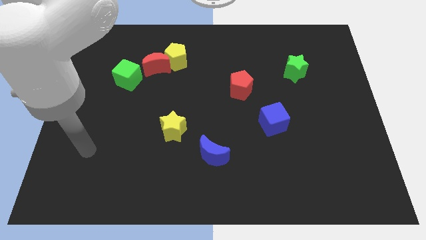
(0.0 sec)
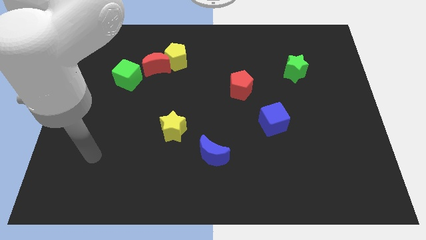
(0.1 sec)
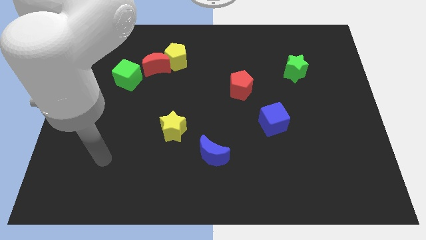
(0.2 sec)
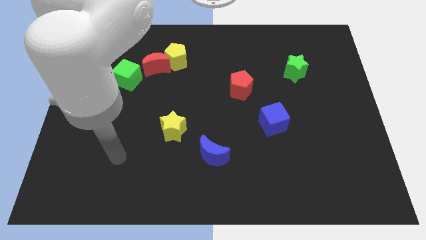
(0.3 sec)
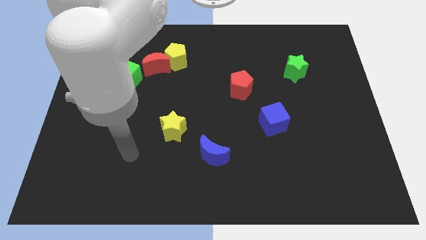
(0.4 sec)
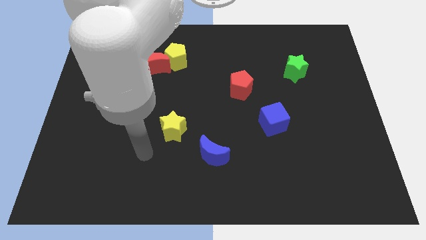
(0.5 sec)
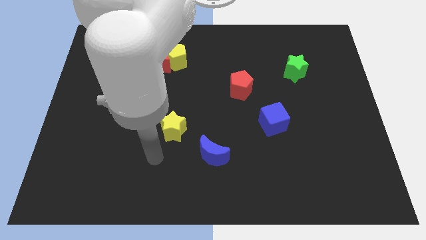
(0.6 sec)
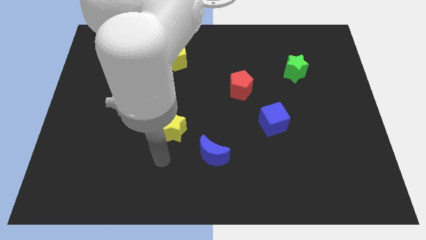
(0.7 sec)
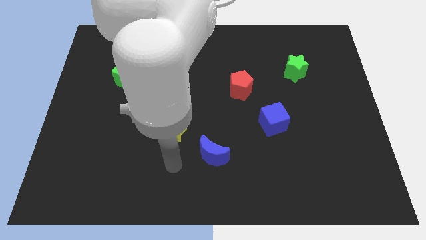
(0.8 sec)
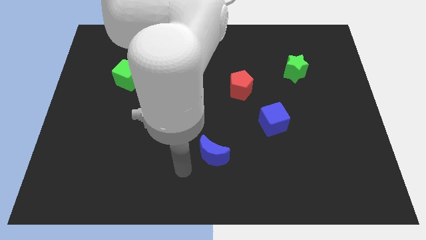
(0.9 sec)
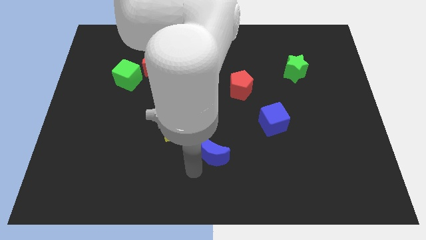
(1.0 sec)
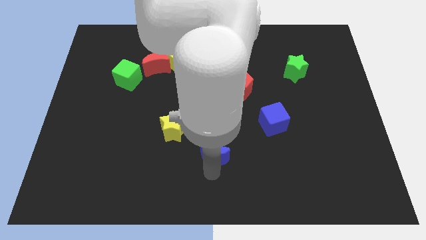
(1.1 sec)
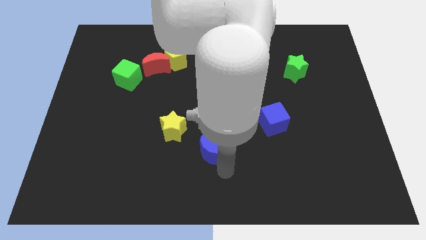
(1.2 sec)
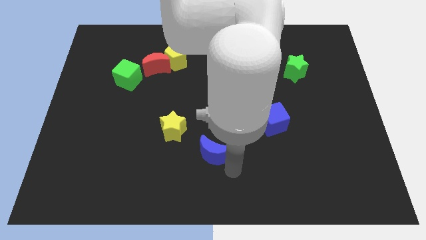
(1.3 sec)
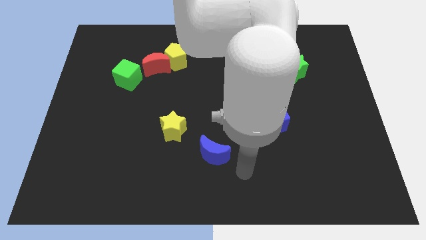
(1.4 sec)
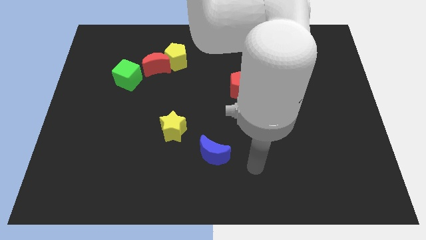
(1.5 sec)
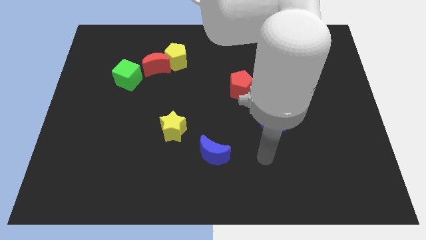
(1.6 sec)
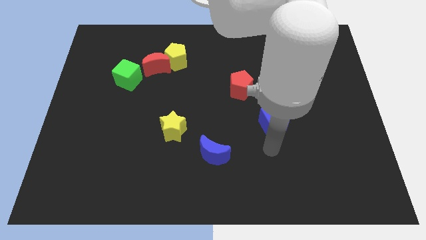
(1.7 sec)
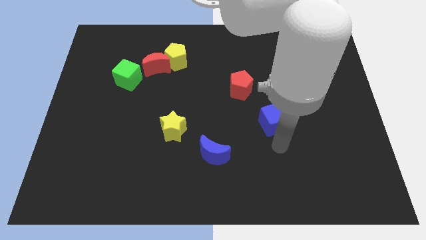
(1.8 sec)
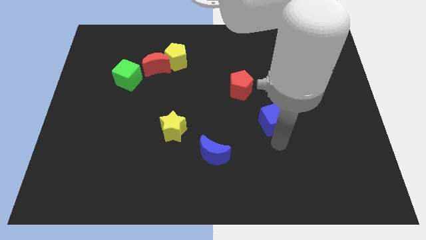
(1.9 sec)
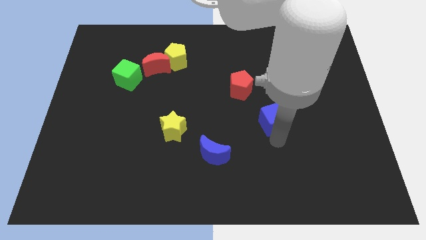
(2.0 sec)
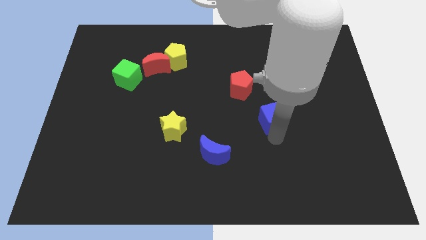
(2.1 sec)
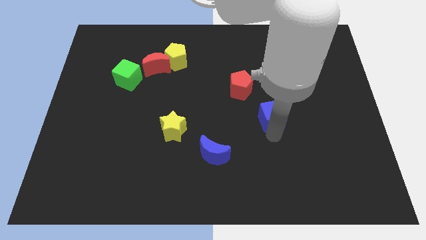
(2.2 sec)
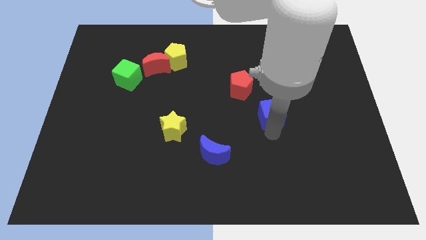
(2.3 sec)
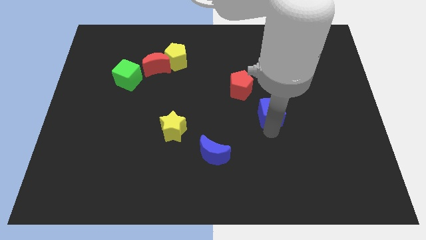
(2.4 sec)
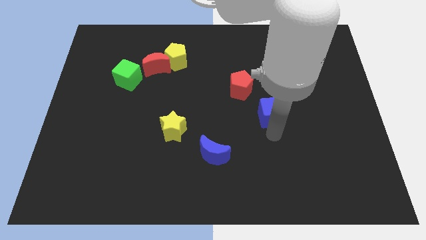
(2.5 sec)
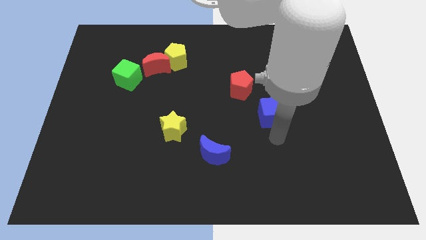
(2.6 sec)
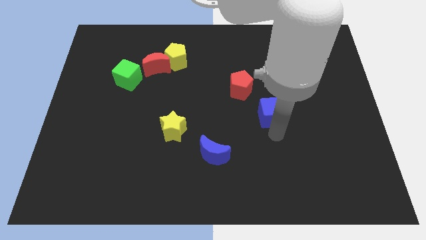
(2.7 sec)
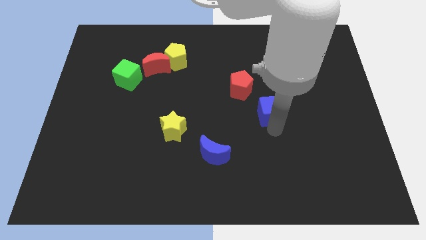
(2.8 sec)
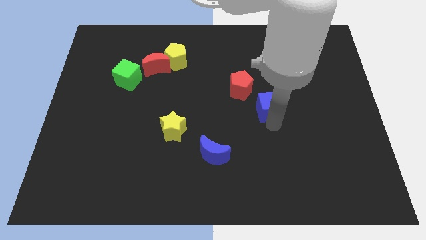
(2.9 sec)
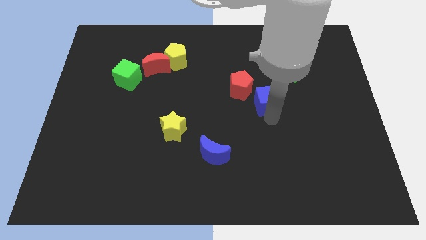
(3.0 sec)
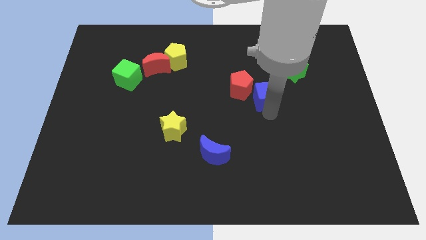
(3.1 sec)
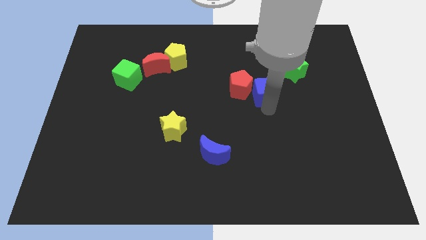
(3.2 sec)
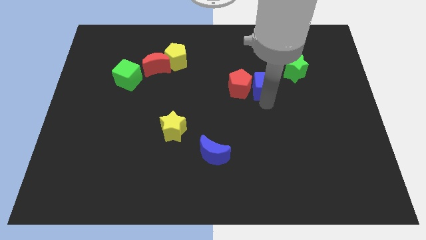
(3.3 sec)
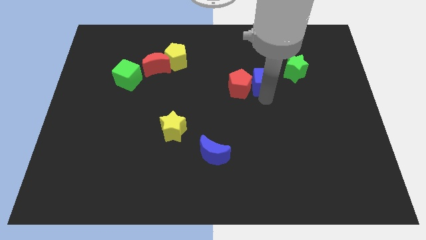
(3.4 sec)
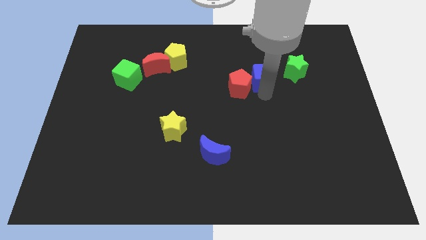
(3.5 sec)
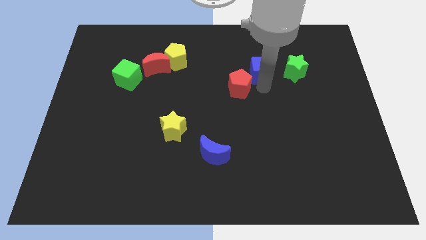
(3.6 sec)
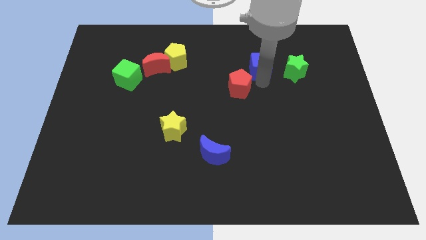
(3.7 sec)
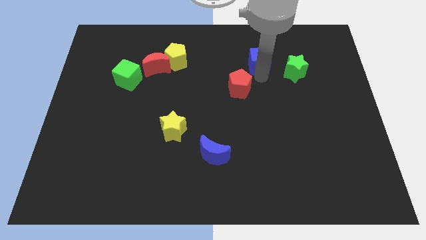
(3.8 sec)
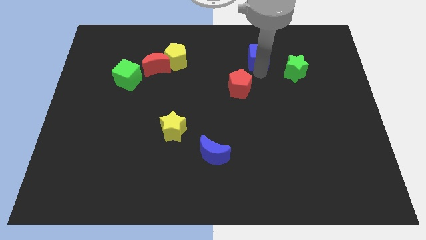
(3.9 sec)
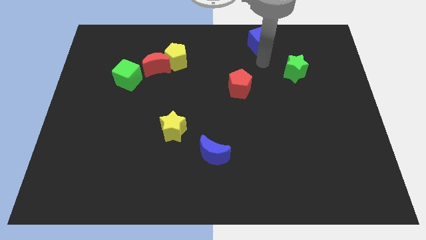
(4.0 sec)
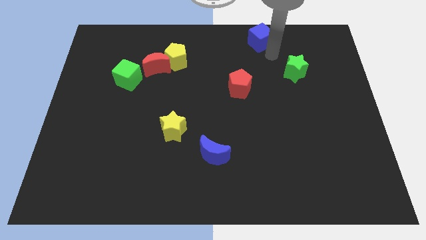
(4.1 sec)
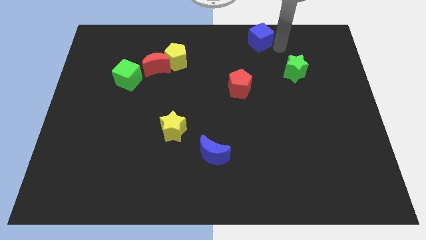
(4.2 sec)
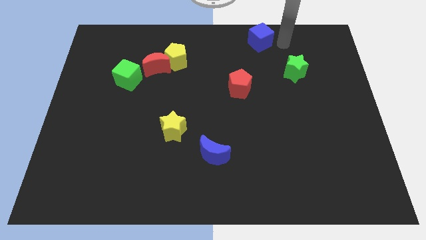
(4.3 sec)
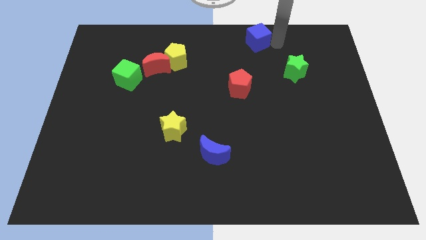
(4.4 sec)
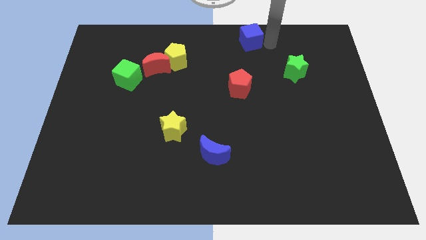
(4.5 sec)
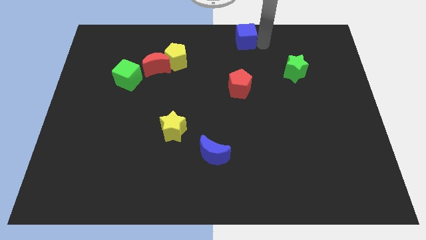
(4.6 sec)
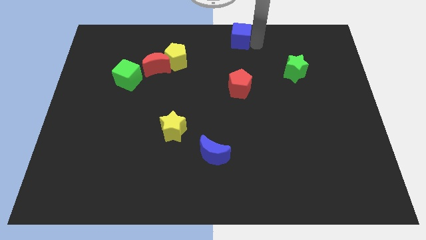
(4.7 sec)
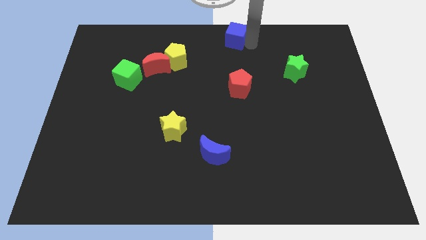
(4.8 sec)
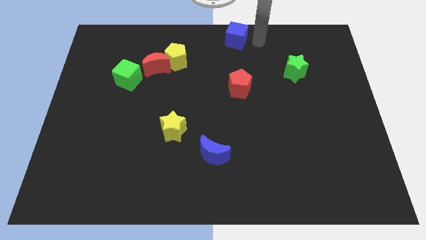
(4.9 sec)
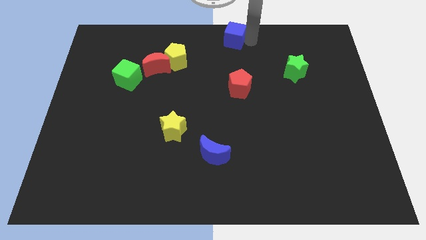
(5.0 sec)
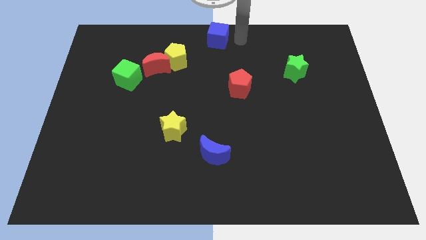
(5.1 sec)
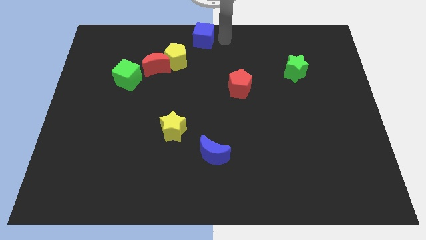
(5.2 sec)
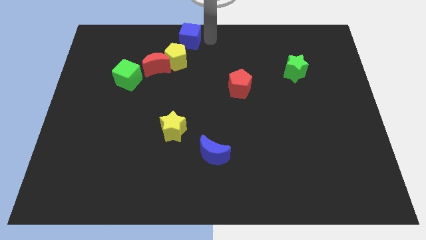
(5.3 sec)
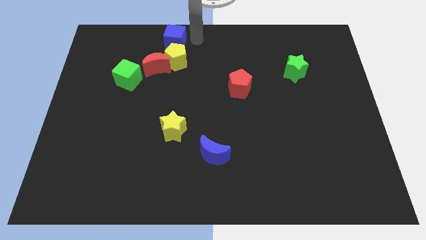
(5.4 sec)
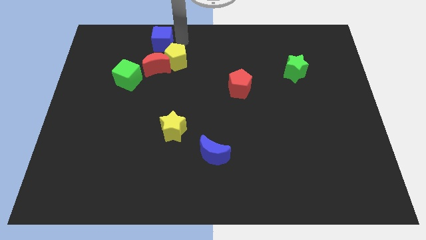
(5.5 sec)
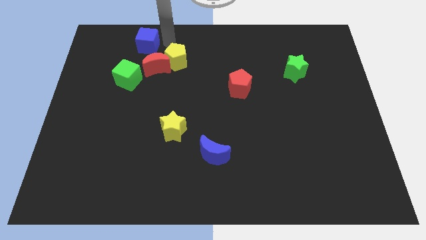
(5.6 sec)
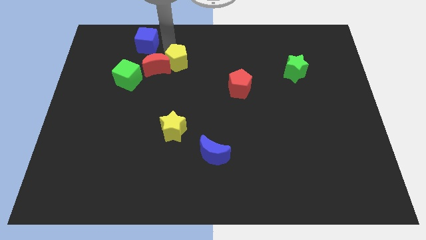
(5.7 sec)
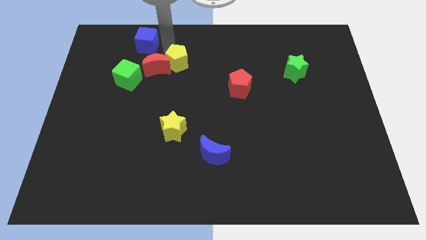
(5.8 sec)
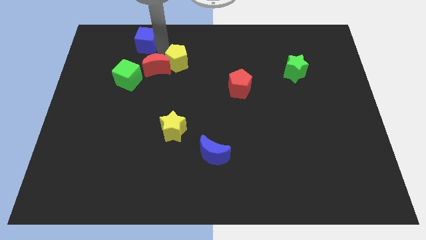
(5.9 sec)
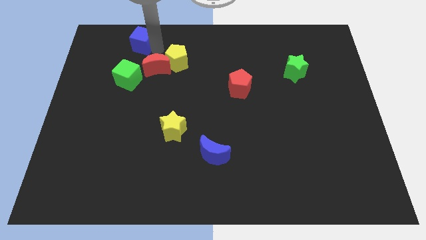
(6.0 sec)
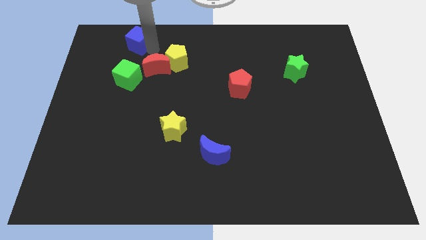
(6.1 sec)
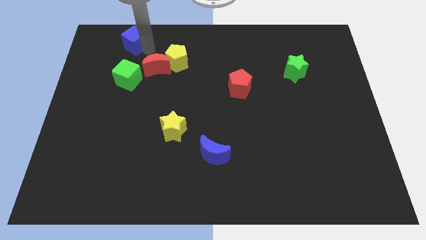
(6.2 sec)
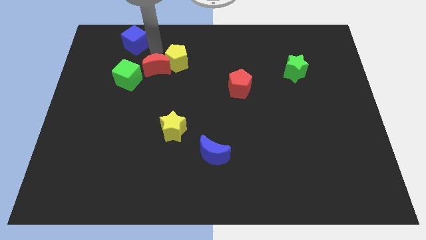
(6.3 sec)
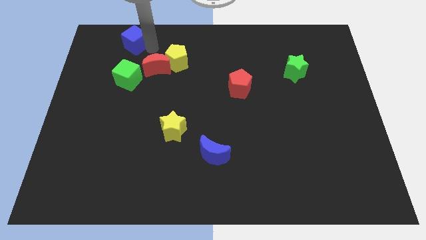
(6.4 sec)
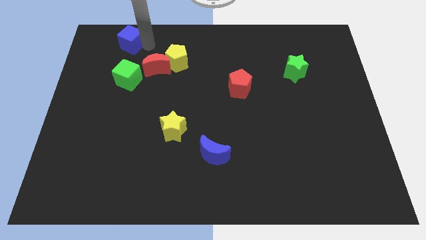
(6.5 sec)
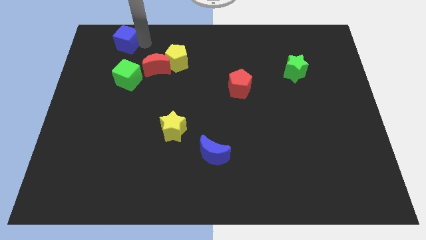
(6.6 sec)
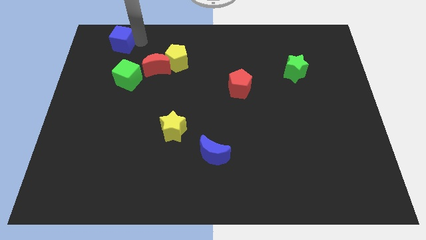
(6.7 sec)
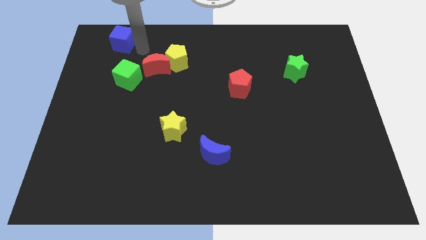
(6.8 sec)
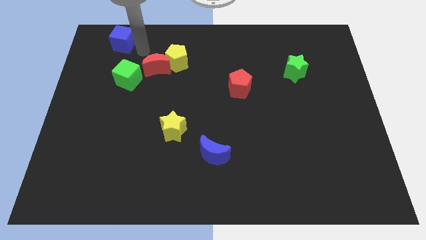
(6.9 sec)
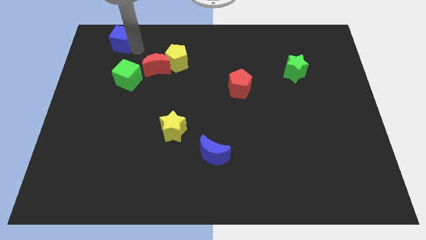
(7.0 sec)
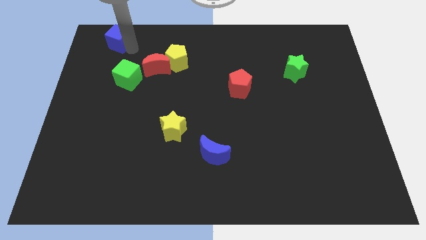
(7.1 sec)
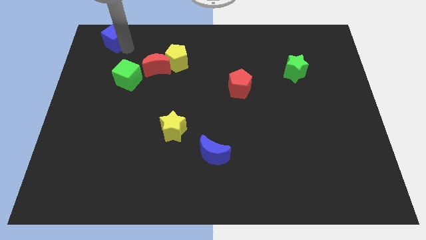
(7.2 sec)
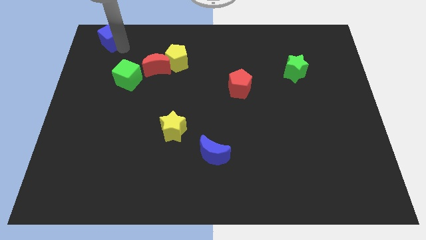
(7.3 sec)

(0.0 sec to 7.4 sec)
push the blue cube to the top left corner
